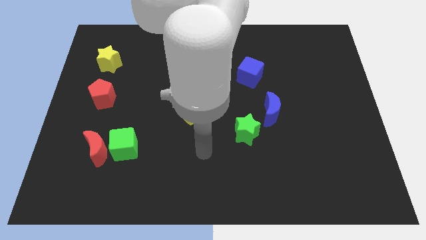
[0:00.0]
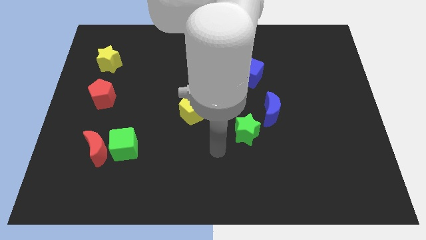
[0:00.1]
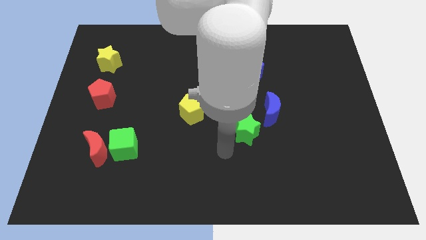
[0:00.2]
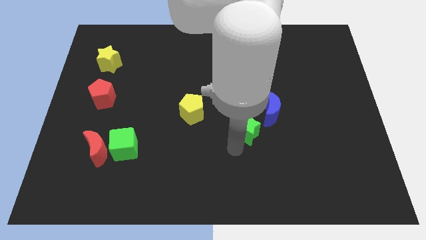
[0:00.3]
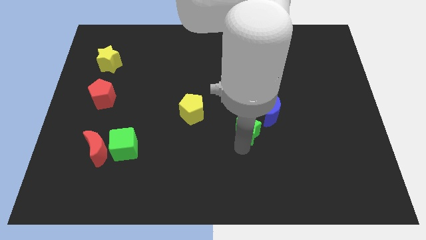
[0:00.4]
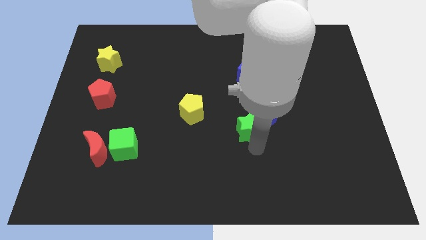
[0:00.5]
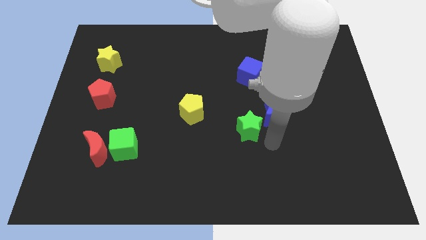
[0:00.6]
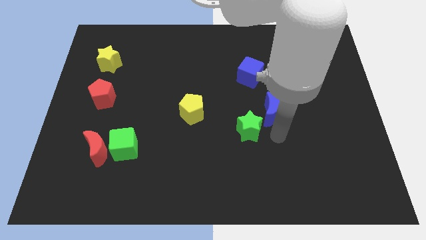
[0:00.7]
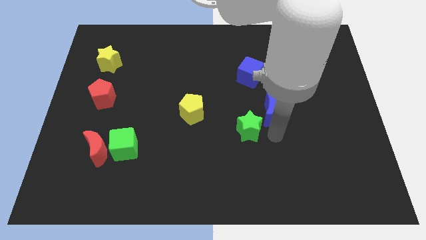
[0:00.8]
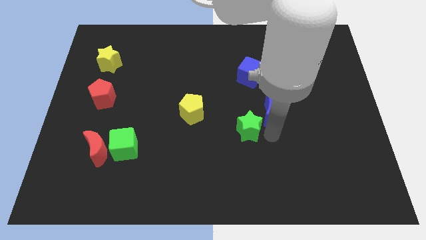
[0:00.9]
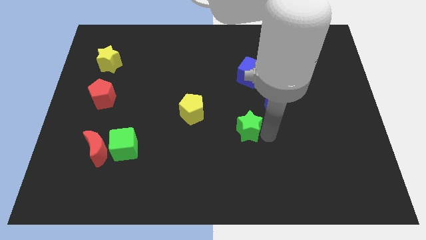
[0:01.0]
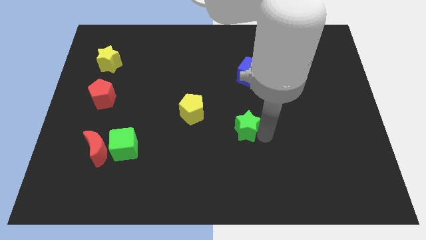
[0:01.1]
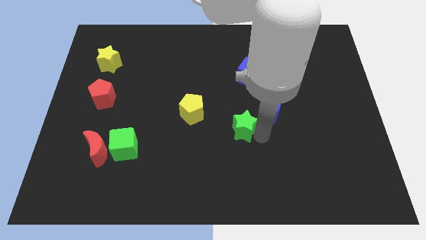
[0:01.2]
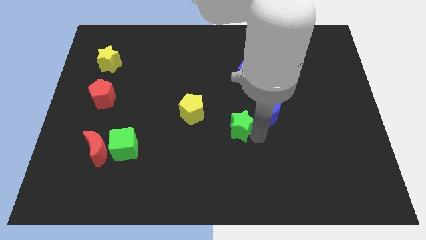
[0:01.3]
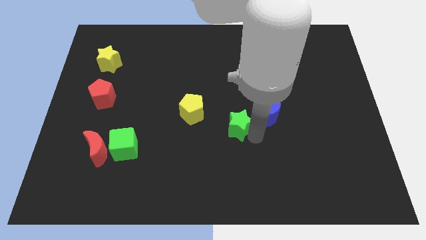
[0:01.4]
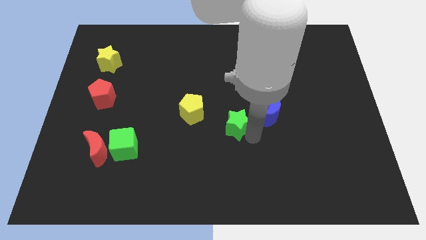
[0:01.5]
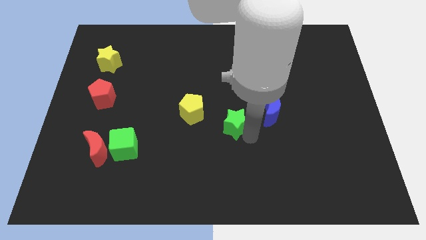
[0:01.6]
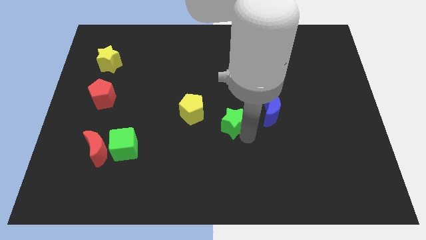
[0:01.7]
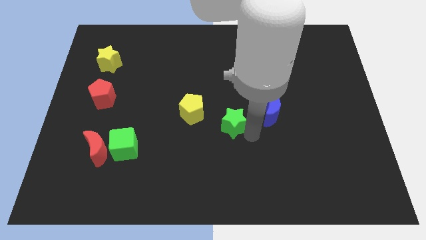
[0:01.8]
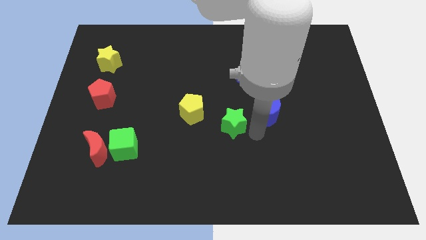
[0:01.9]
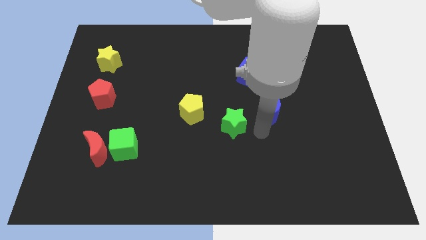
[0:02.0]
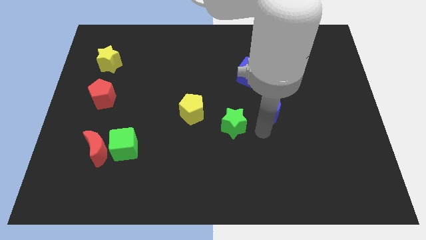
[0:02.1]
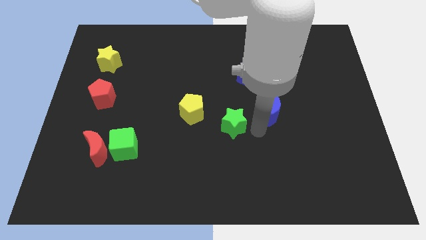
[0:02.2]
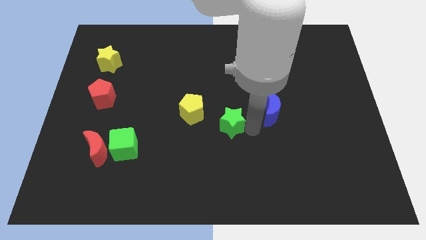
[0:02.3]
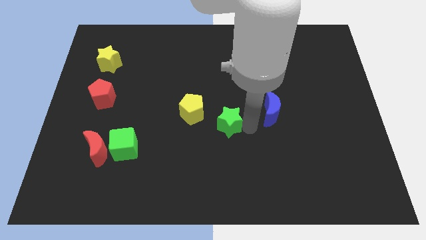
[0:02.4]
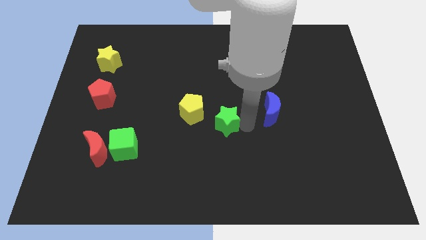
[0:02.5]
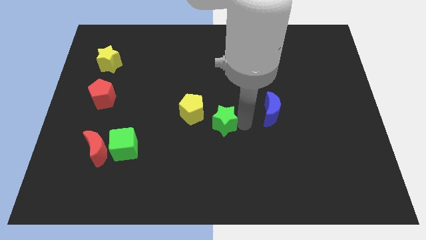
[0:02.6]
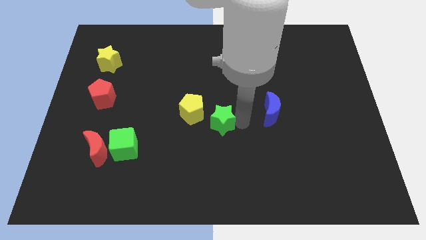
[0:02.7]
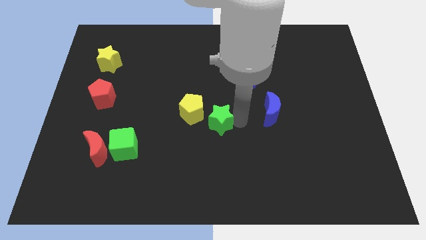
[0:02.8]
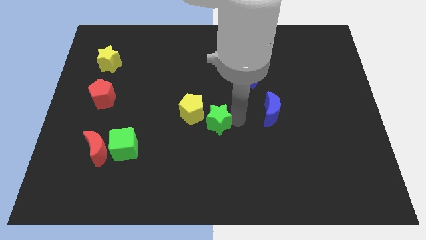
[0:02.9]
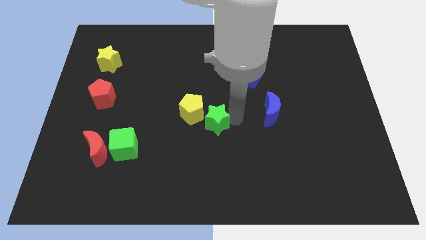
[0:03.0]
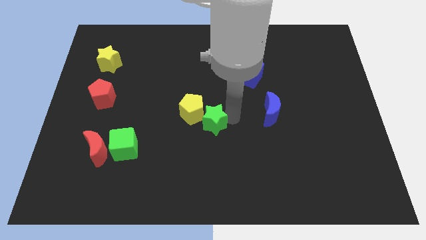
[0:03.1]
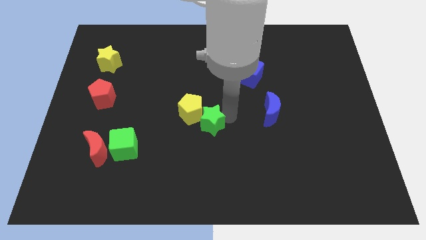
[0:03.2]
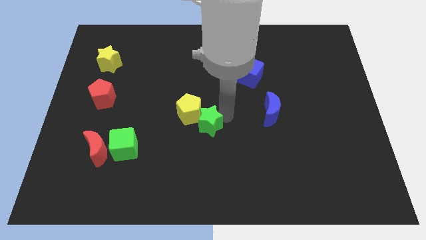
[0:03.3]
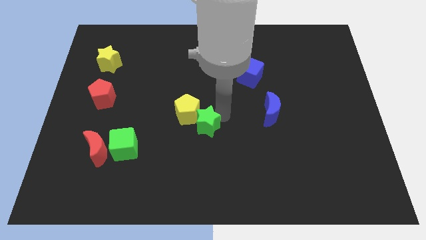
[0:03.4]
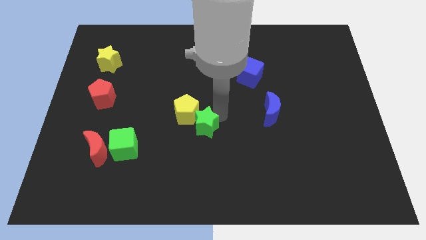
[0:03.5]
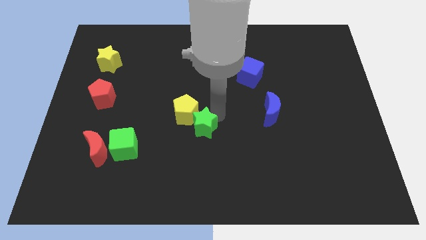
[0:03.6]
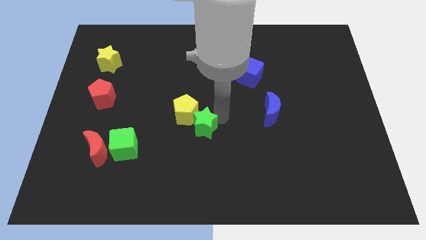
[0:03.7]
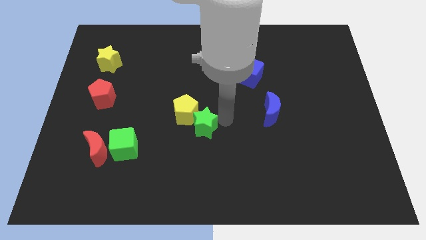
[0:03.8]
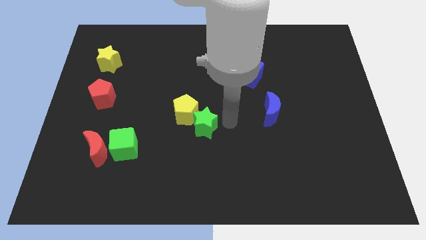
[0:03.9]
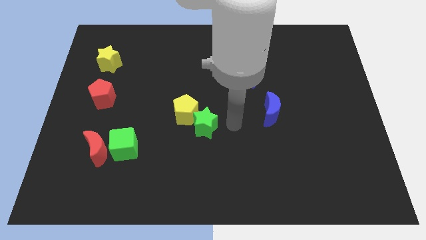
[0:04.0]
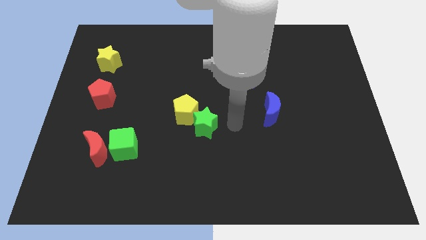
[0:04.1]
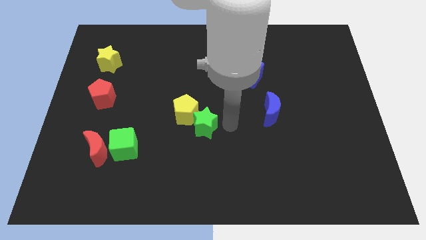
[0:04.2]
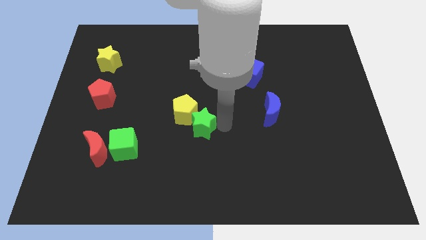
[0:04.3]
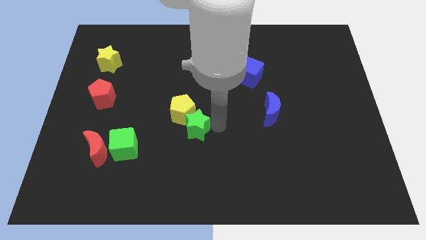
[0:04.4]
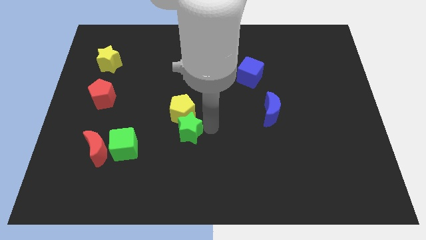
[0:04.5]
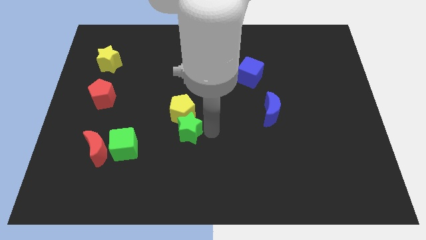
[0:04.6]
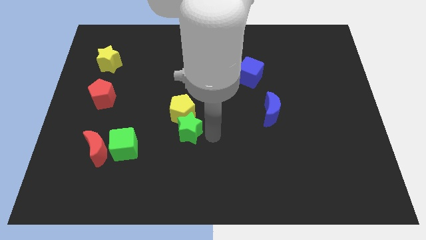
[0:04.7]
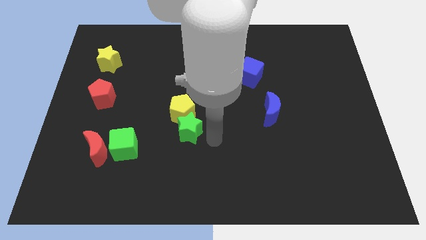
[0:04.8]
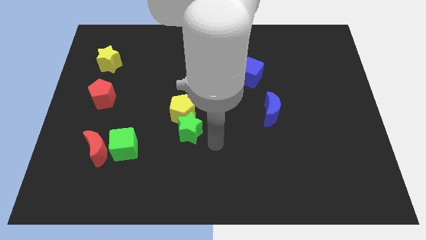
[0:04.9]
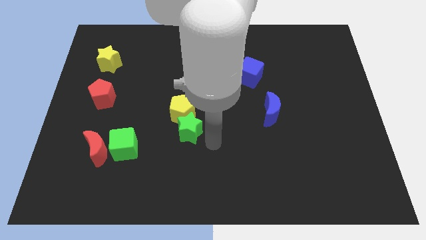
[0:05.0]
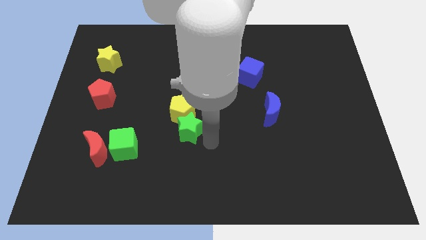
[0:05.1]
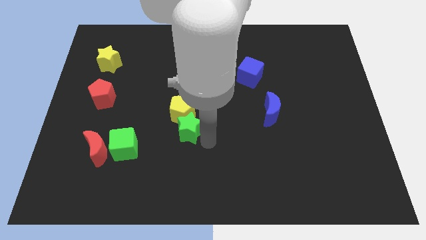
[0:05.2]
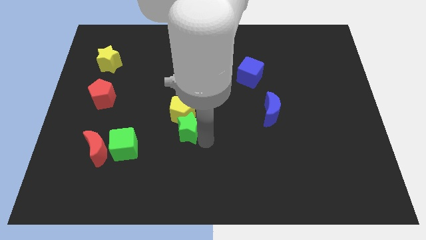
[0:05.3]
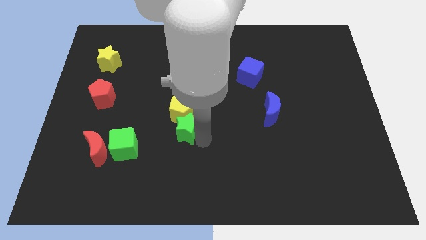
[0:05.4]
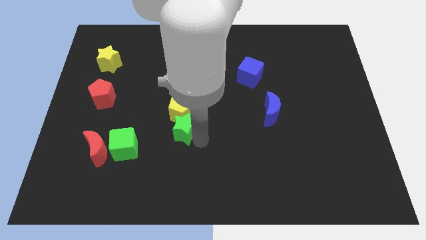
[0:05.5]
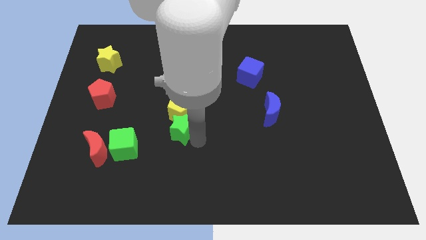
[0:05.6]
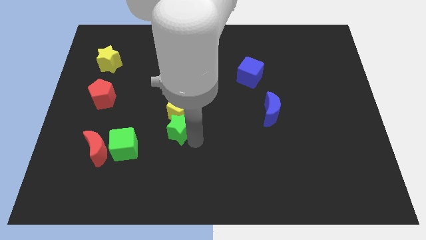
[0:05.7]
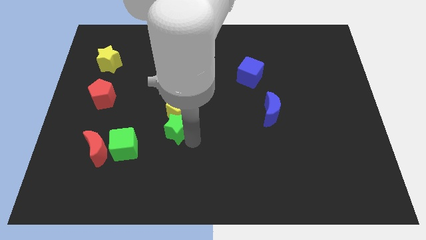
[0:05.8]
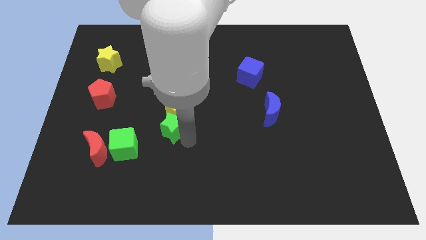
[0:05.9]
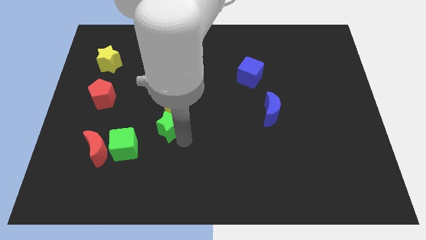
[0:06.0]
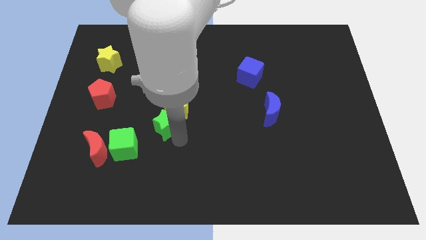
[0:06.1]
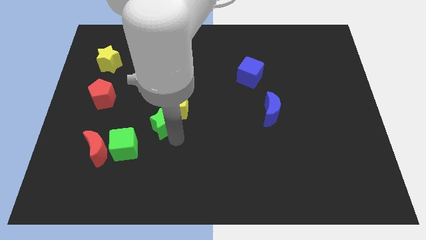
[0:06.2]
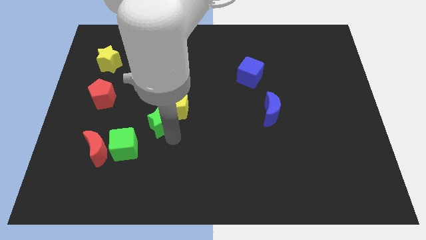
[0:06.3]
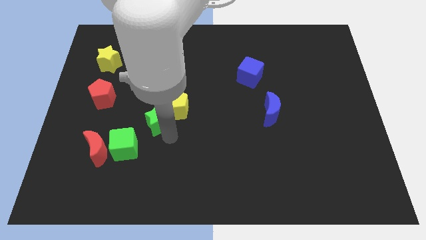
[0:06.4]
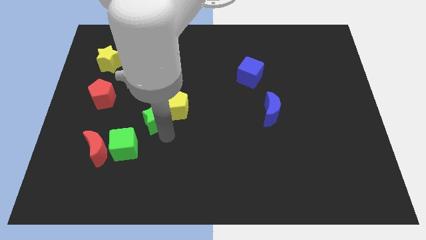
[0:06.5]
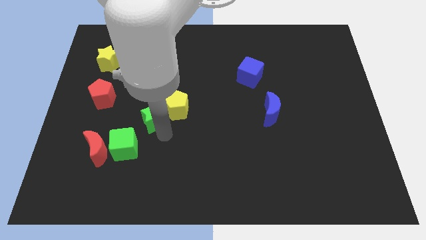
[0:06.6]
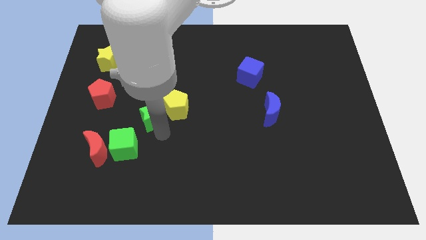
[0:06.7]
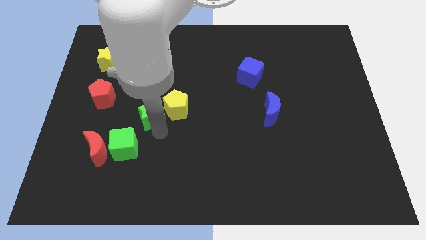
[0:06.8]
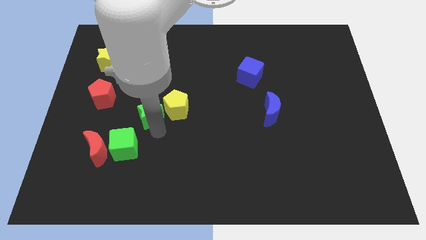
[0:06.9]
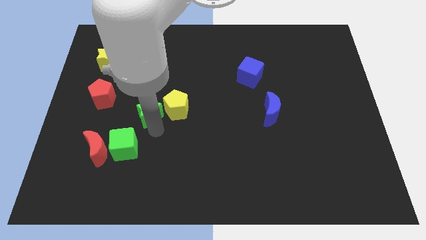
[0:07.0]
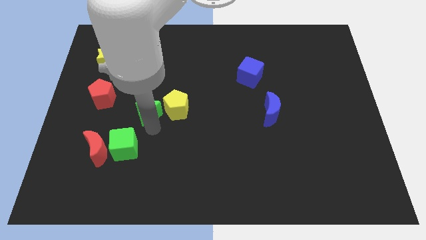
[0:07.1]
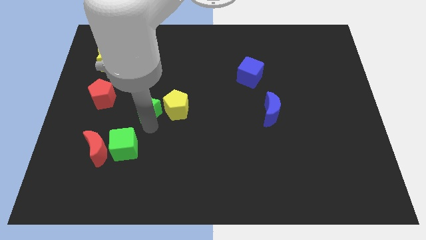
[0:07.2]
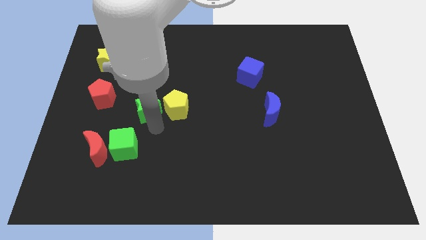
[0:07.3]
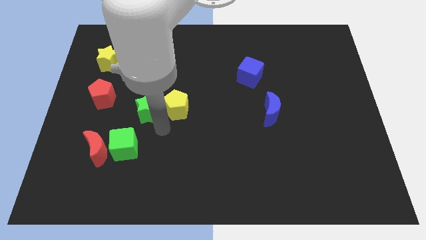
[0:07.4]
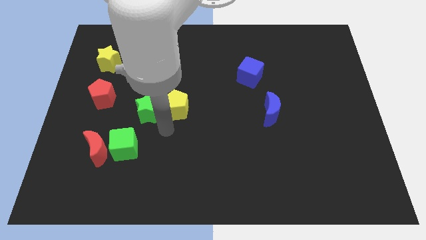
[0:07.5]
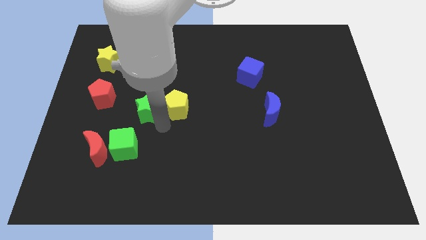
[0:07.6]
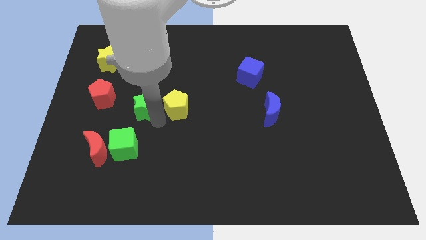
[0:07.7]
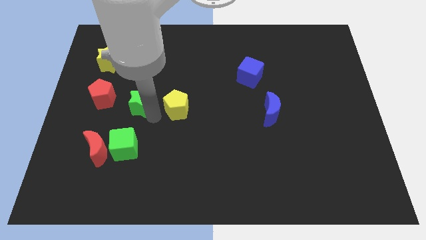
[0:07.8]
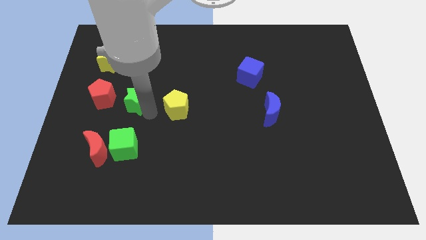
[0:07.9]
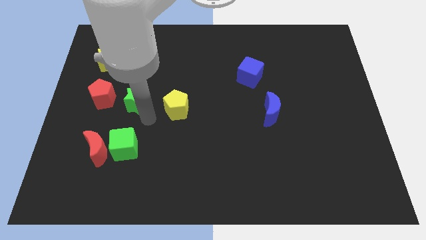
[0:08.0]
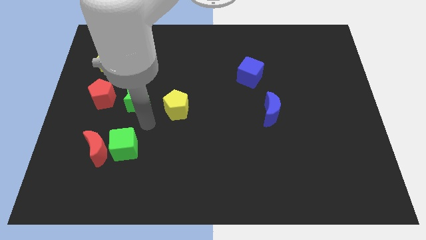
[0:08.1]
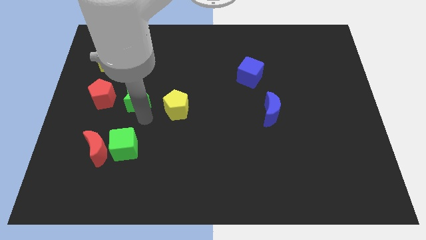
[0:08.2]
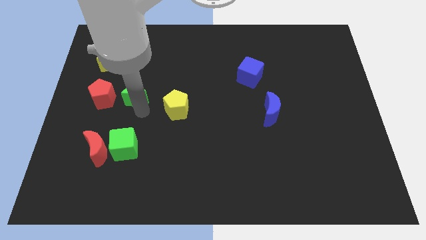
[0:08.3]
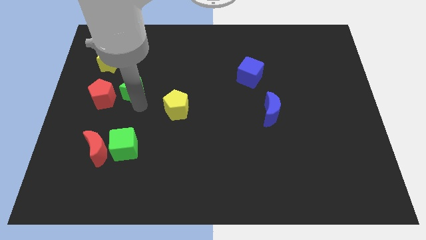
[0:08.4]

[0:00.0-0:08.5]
move the green star to the top right side of the red pentagon
